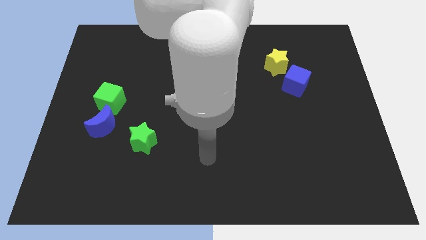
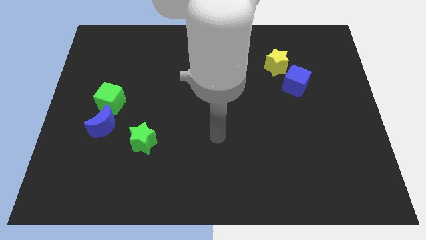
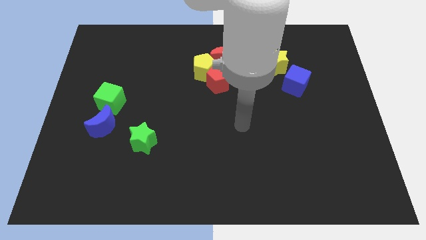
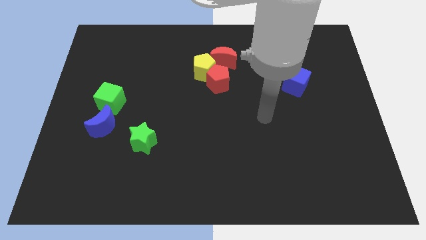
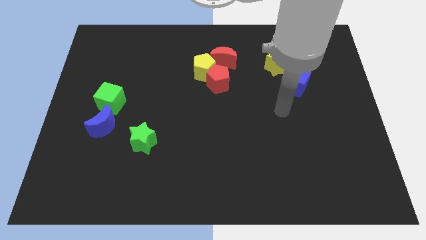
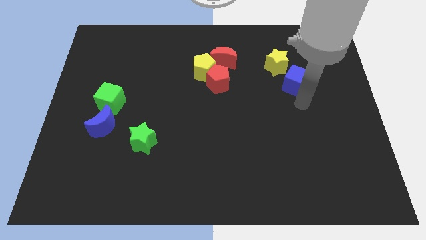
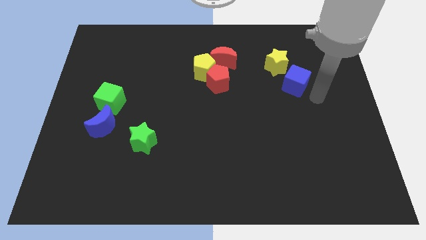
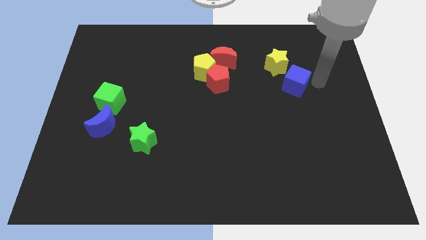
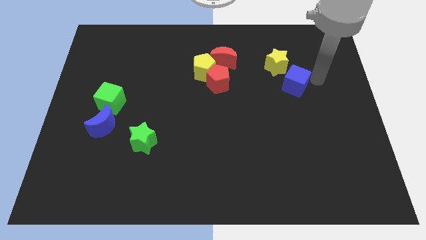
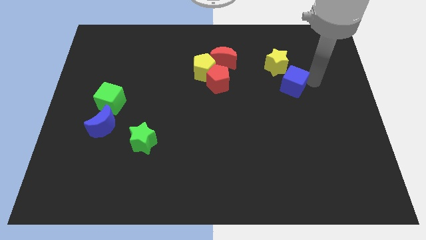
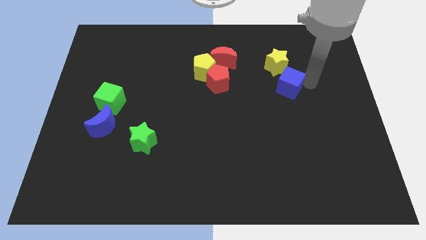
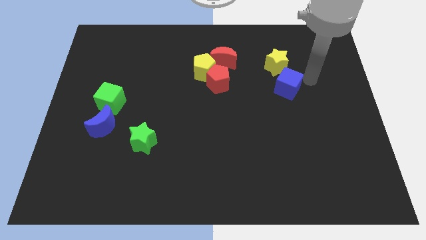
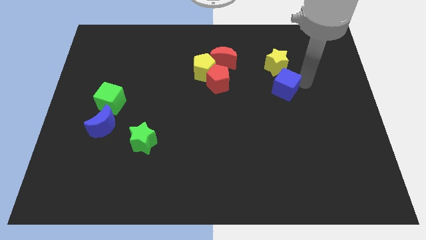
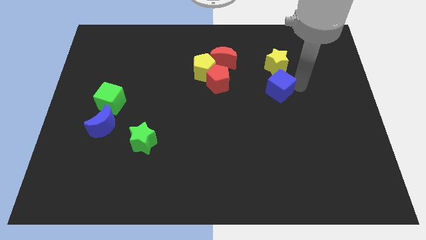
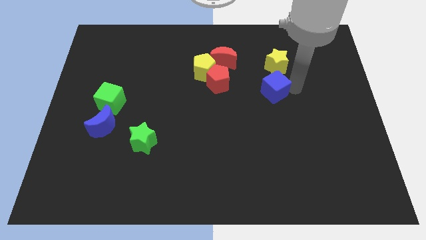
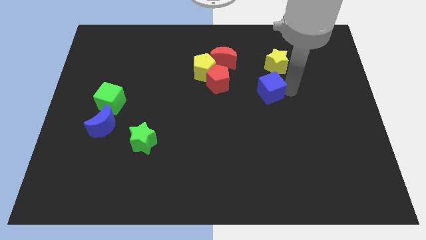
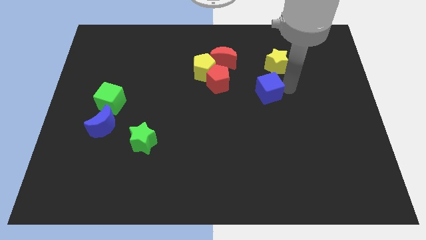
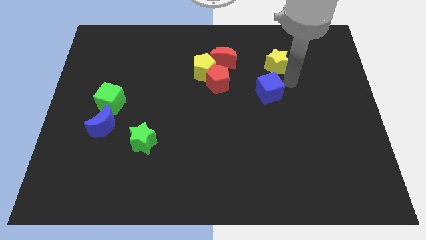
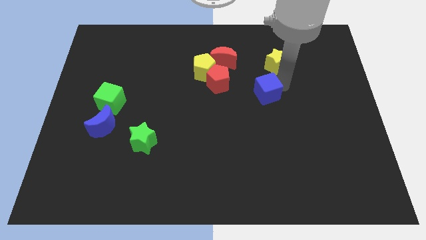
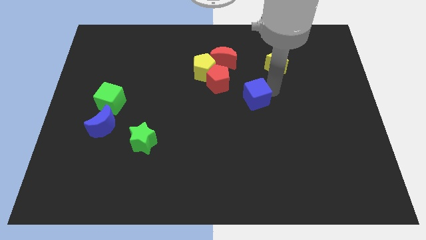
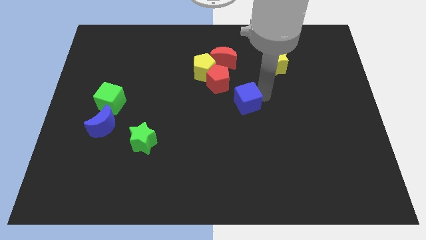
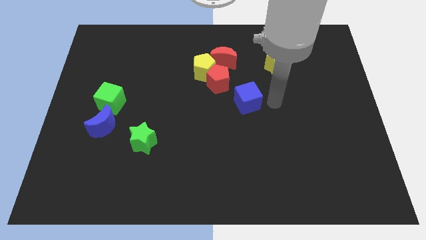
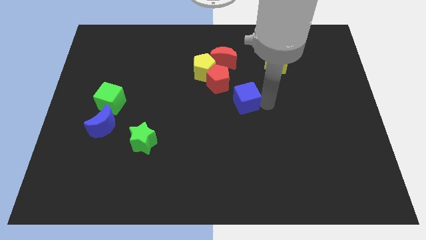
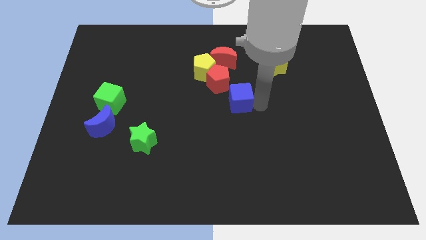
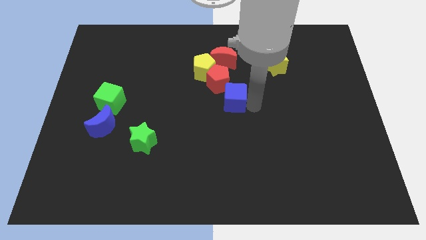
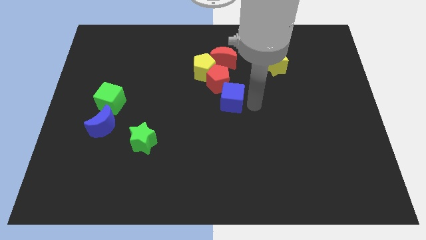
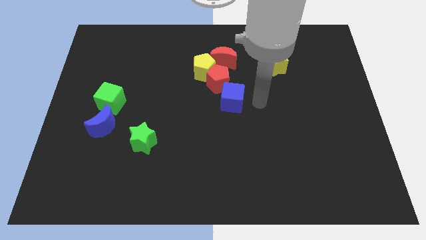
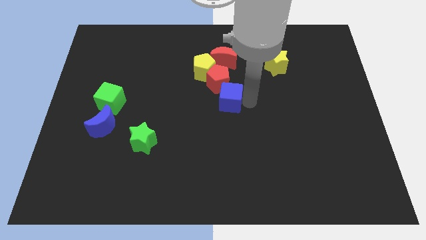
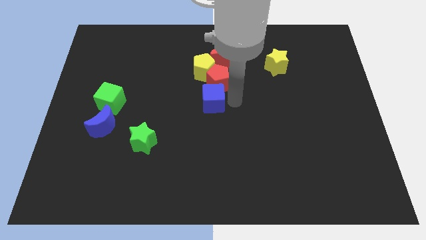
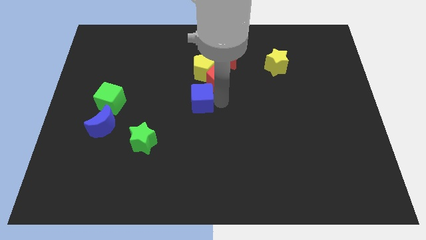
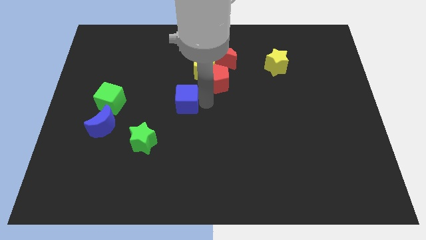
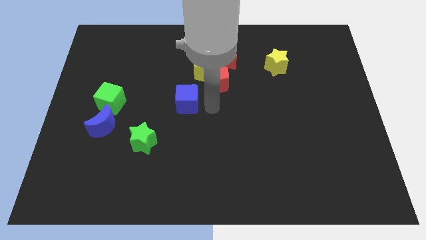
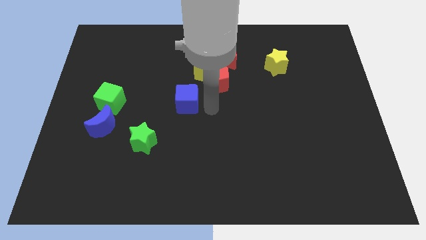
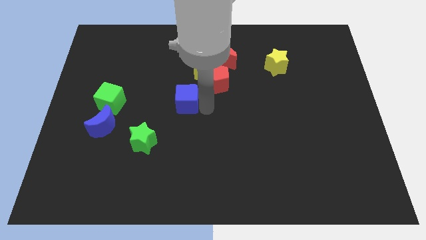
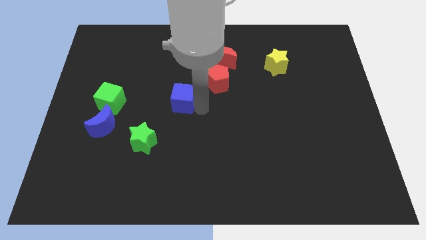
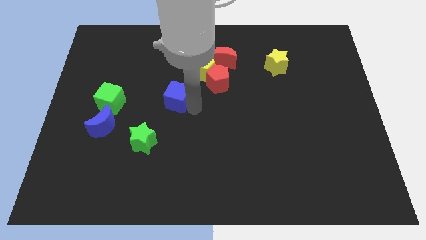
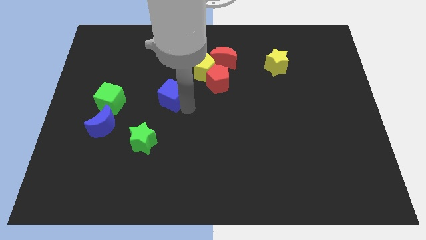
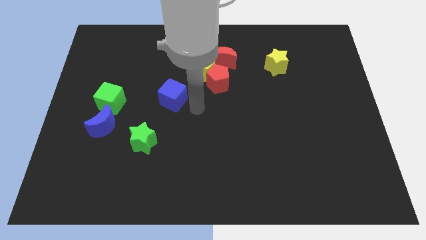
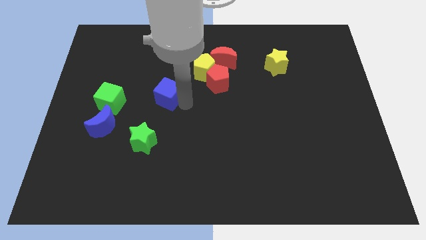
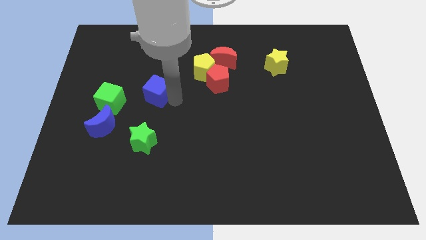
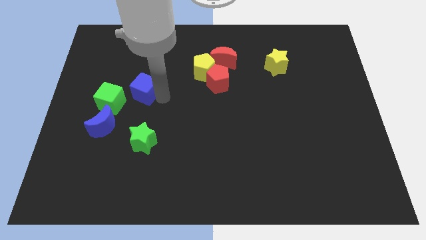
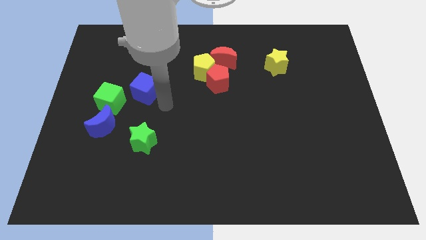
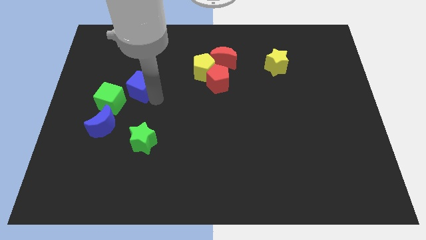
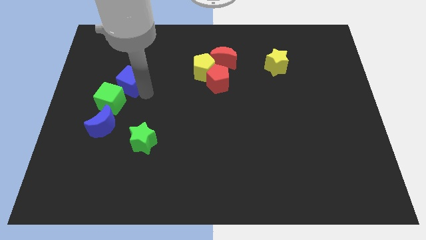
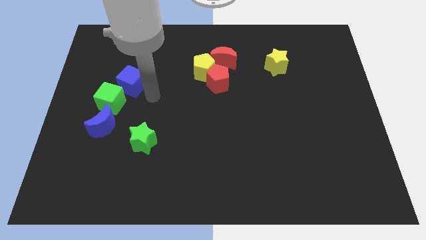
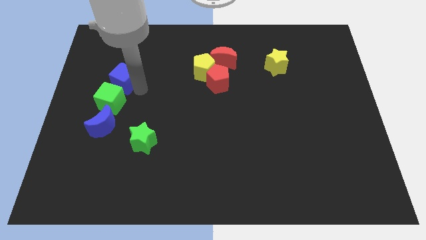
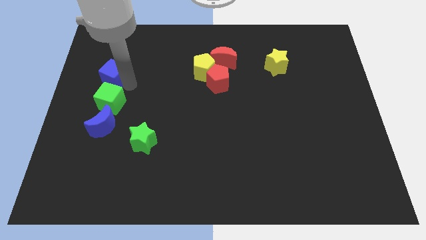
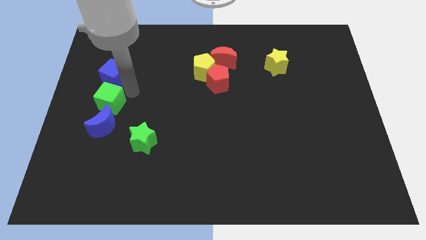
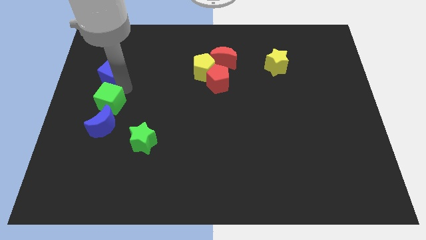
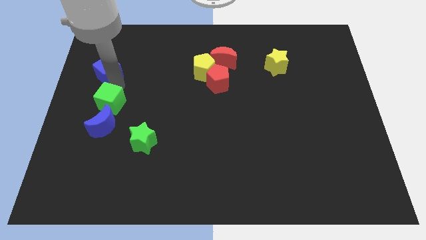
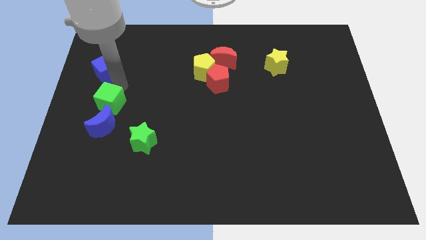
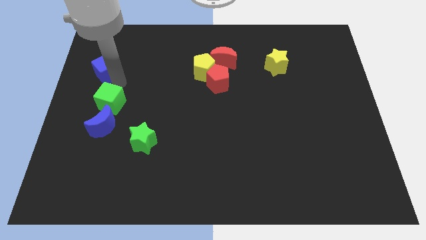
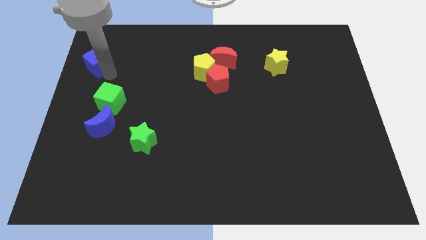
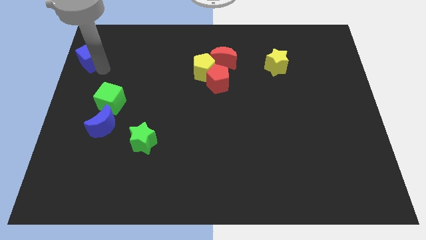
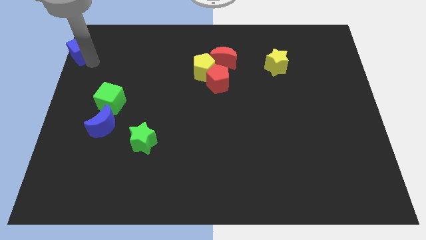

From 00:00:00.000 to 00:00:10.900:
slide the blue cube to the top left of the board

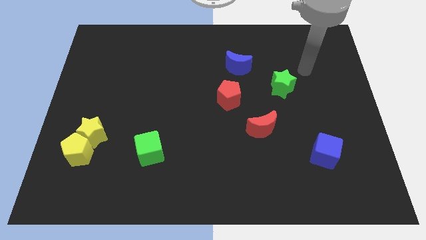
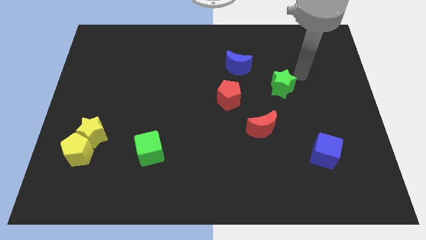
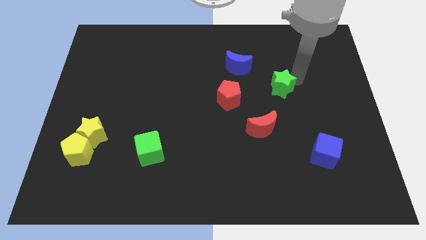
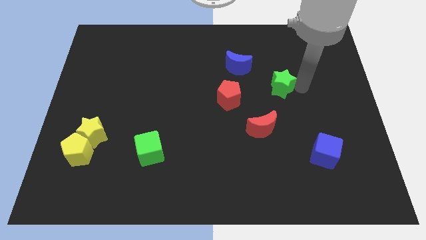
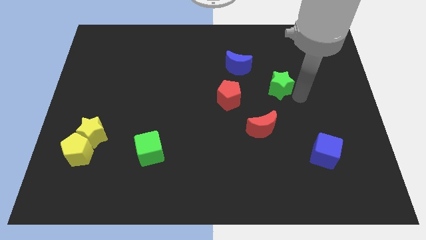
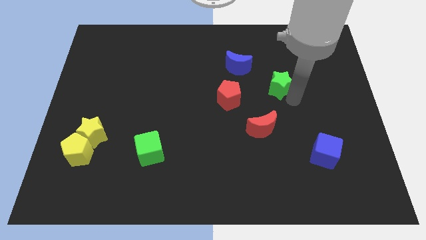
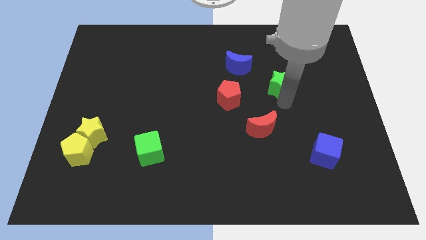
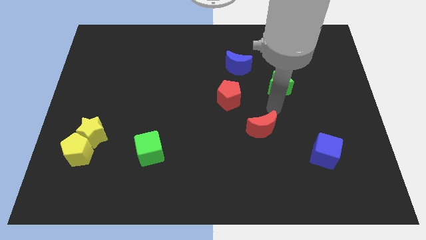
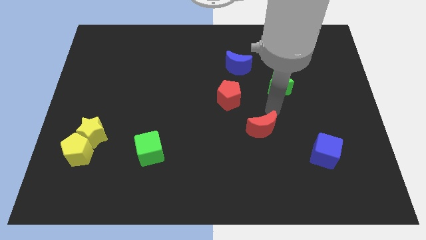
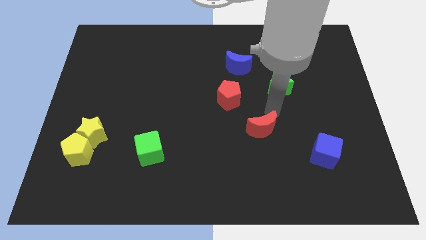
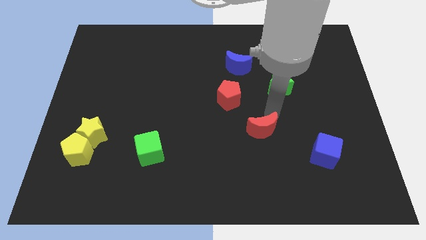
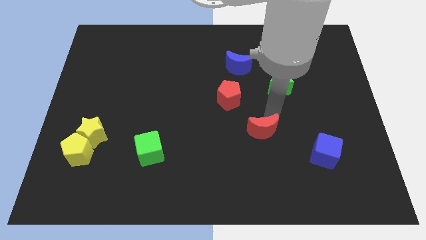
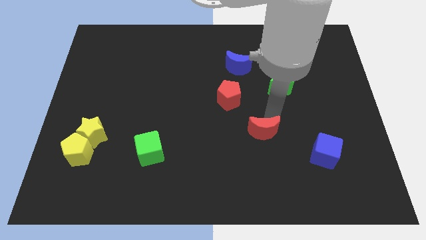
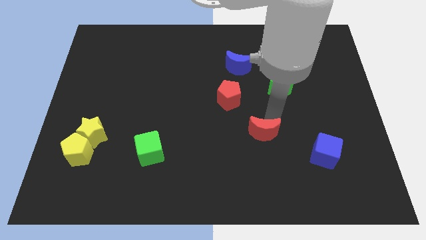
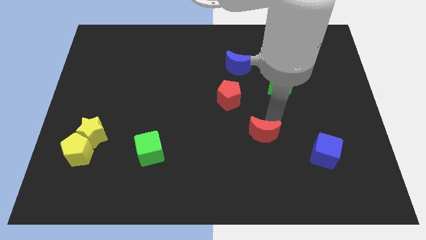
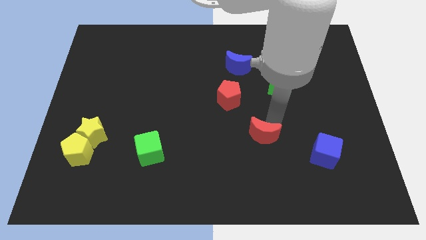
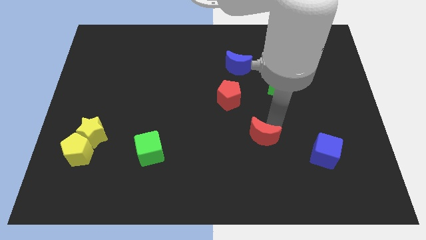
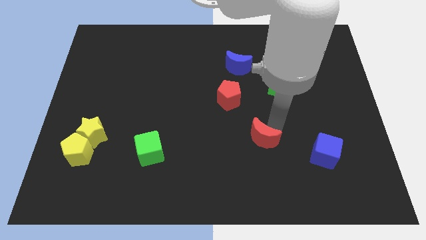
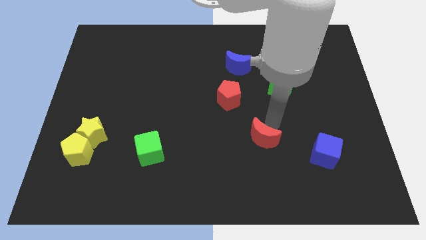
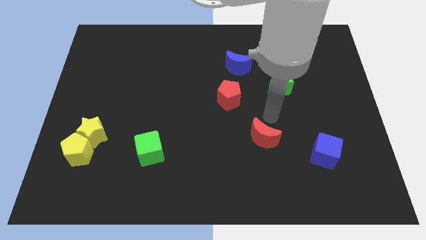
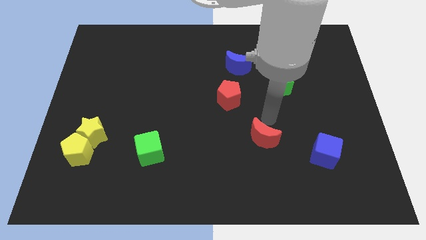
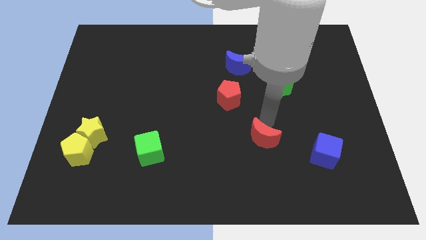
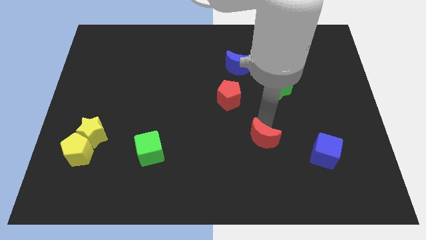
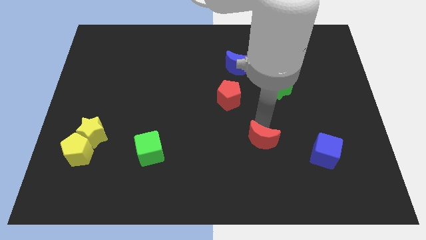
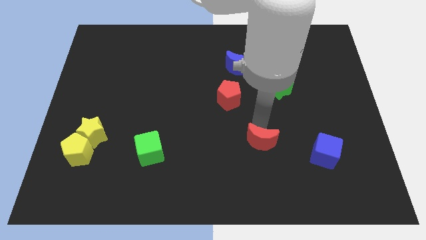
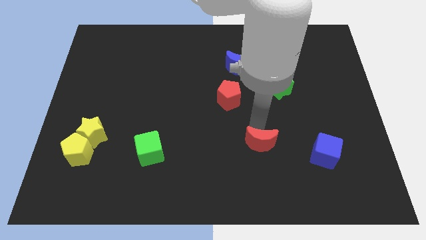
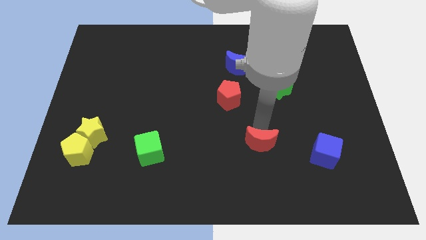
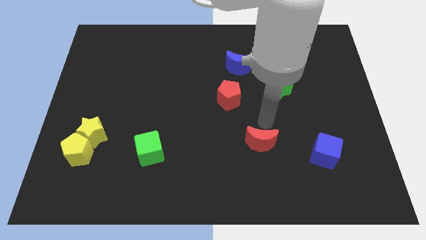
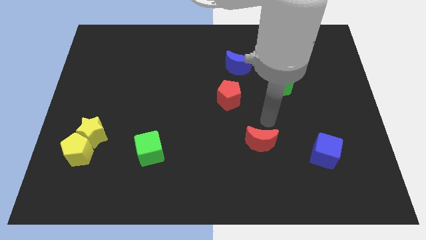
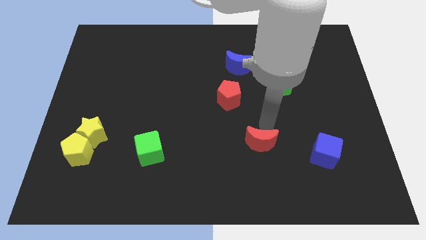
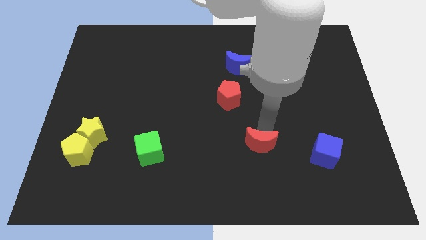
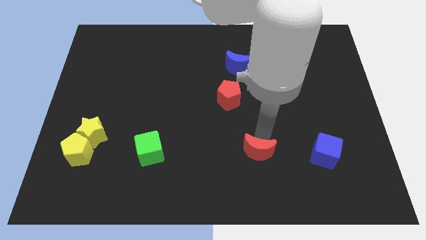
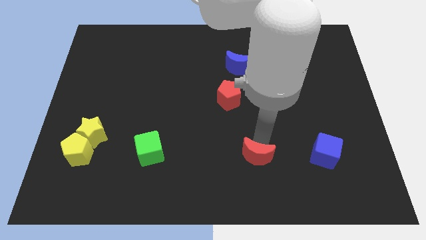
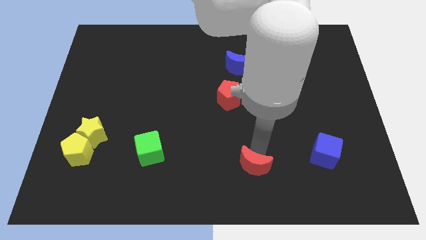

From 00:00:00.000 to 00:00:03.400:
put the red moon to the bottom side
